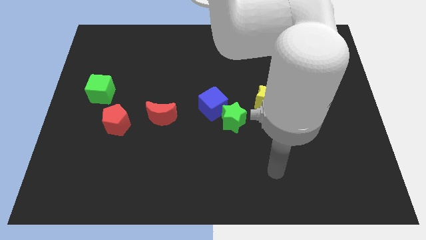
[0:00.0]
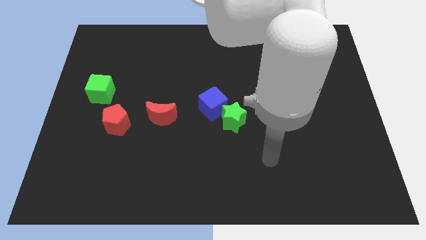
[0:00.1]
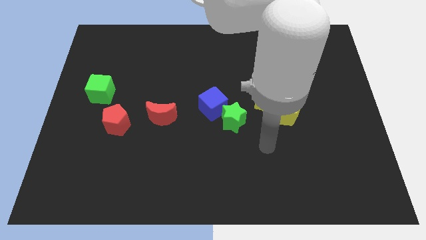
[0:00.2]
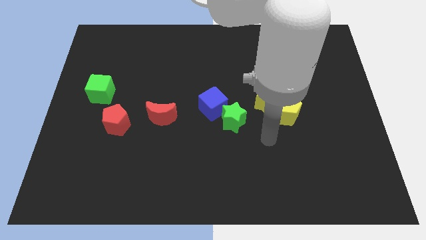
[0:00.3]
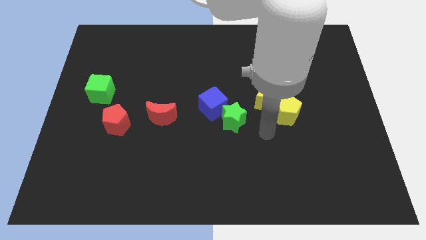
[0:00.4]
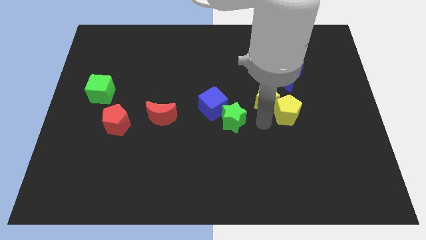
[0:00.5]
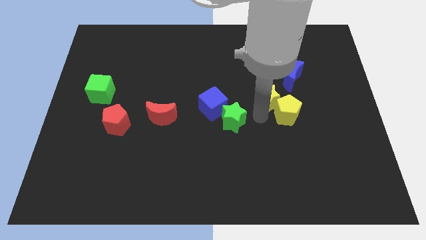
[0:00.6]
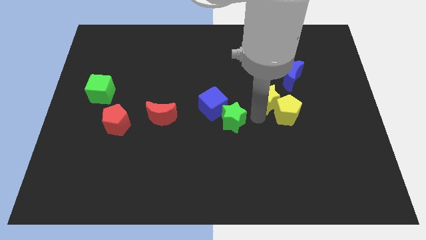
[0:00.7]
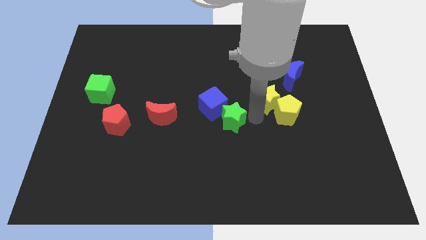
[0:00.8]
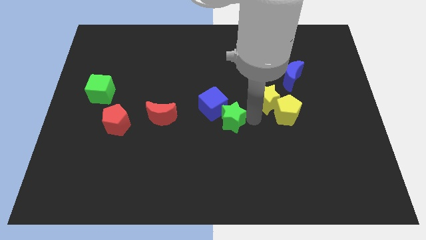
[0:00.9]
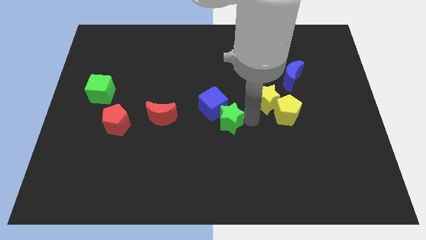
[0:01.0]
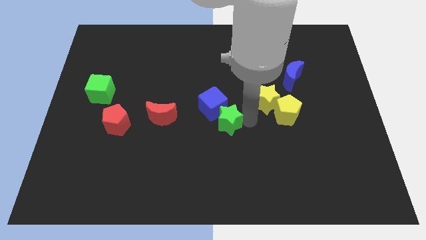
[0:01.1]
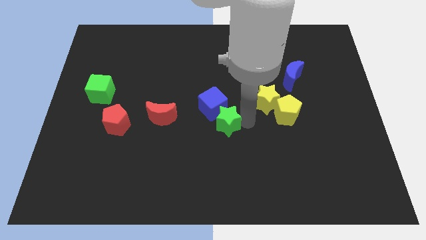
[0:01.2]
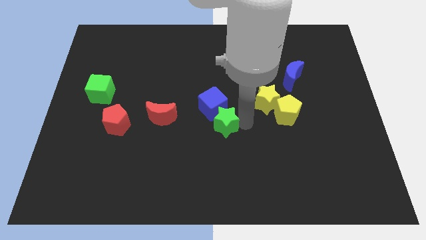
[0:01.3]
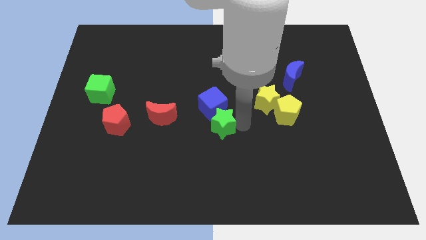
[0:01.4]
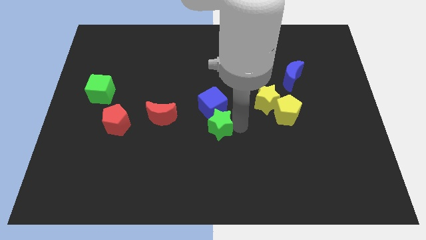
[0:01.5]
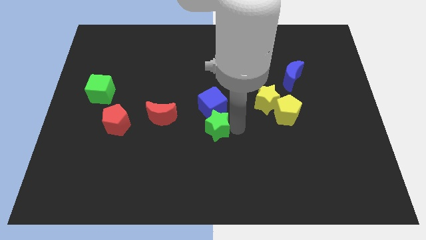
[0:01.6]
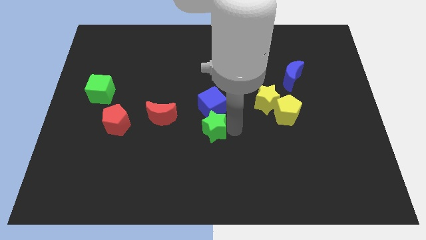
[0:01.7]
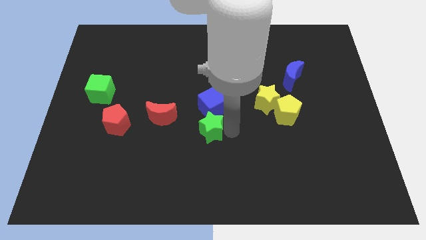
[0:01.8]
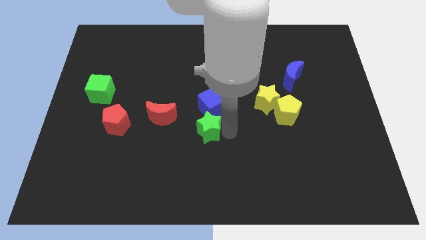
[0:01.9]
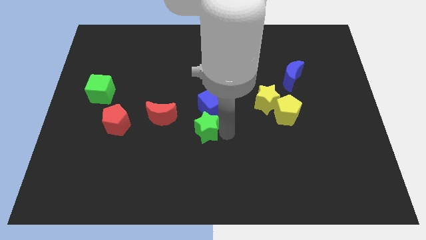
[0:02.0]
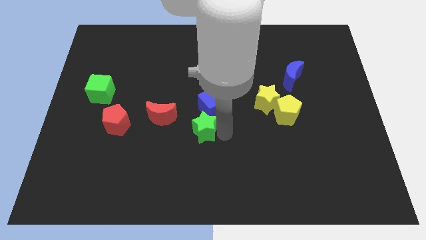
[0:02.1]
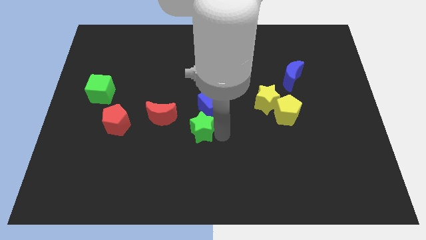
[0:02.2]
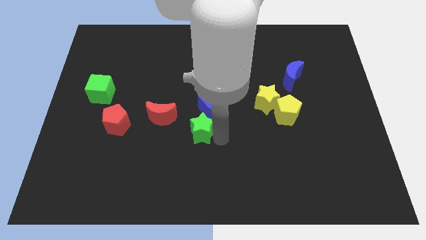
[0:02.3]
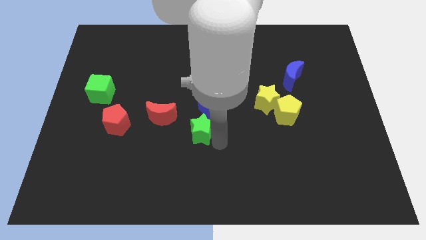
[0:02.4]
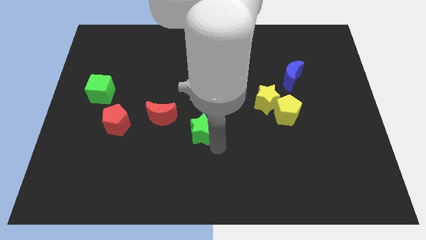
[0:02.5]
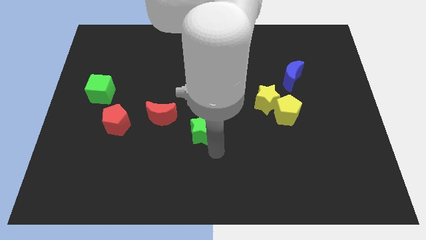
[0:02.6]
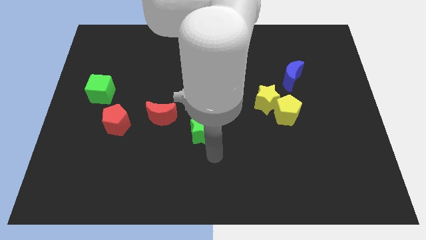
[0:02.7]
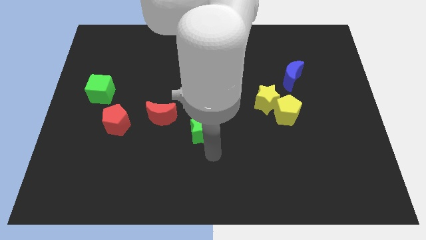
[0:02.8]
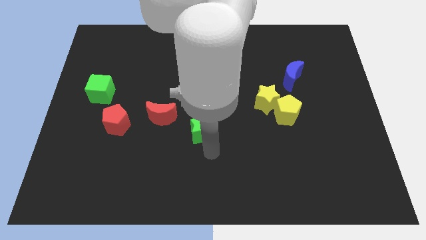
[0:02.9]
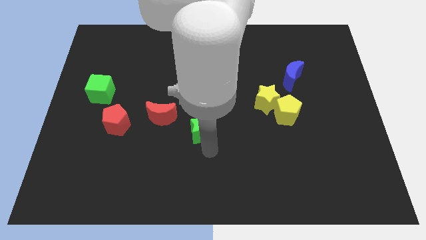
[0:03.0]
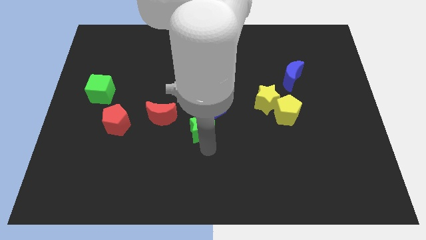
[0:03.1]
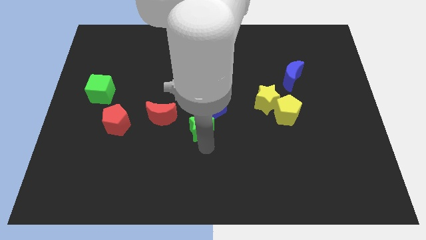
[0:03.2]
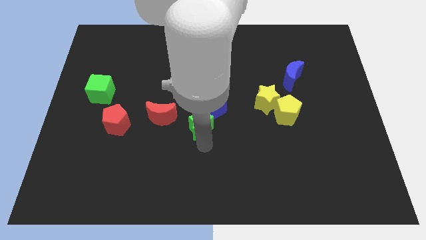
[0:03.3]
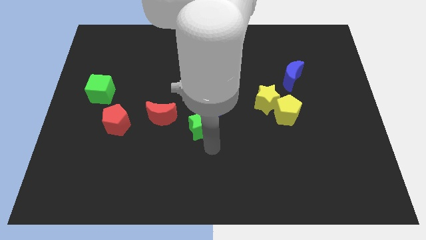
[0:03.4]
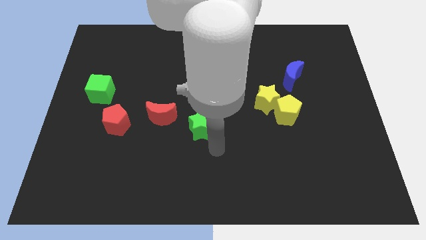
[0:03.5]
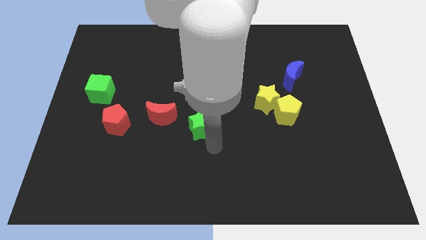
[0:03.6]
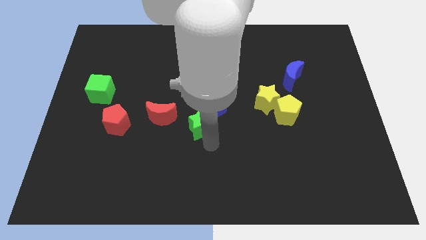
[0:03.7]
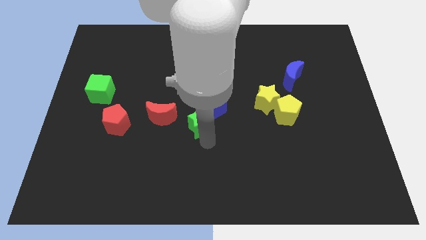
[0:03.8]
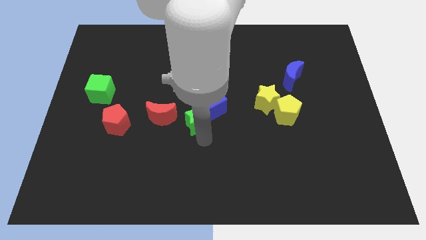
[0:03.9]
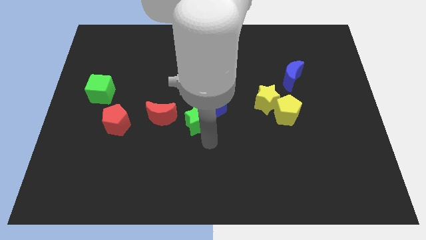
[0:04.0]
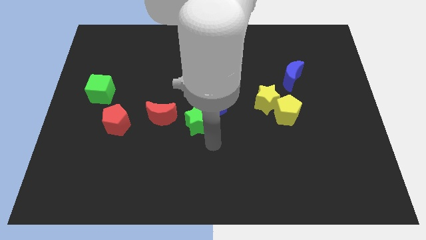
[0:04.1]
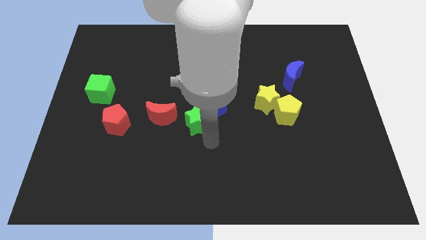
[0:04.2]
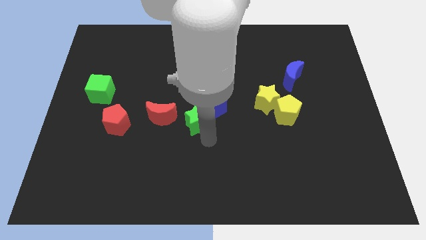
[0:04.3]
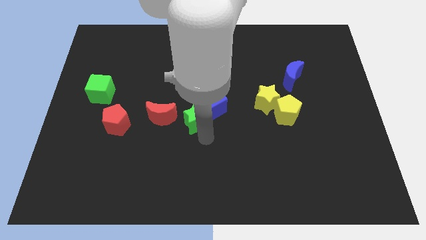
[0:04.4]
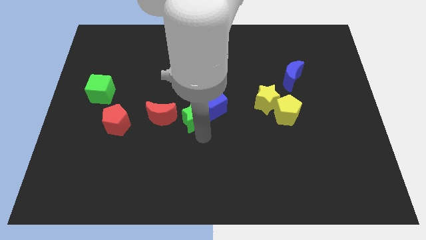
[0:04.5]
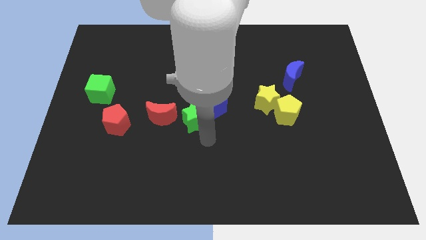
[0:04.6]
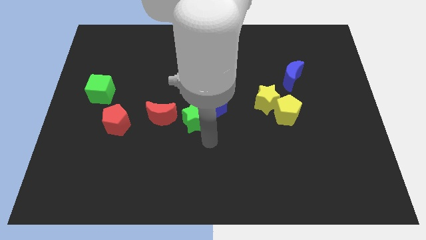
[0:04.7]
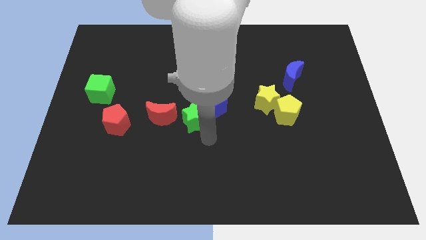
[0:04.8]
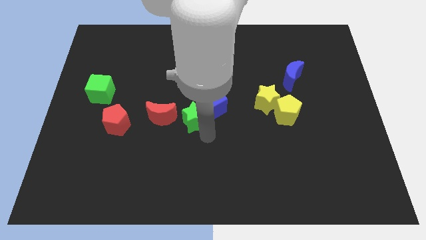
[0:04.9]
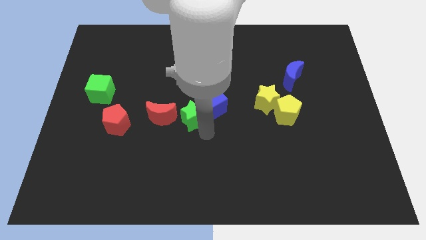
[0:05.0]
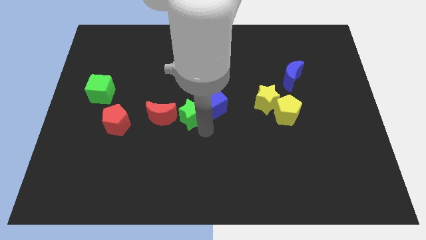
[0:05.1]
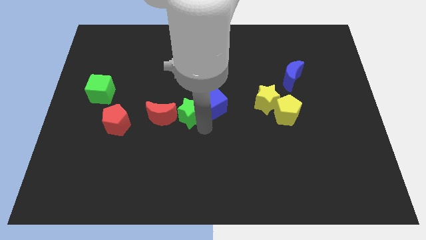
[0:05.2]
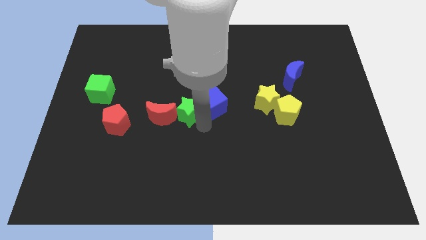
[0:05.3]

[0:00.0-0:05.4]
slightly move the green star upwards and to the left diagonally

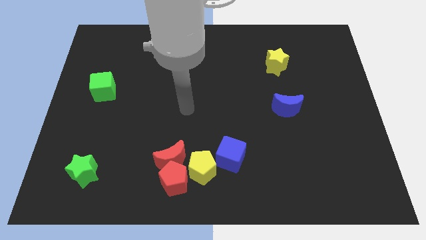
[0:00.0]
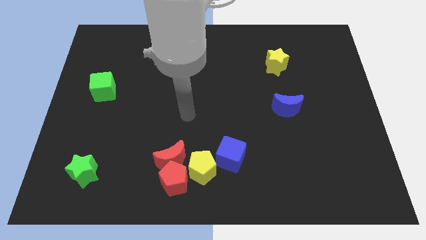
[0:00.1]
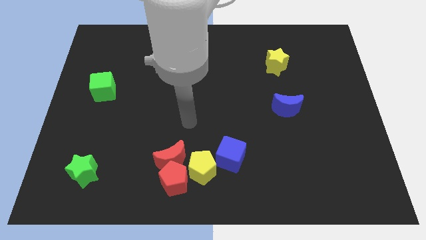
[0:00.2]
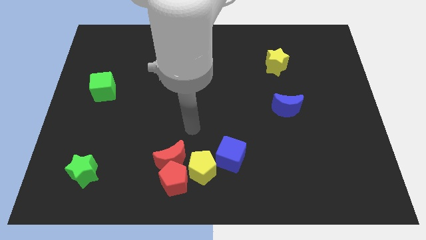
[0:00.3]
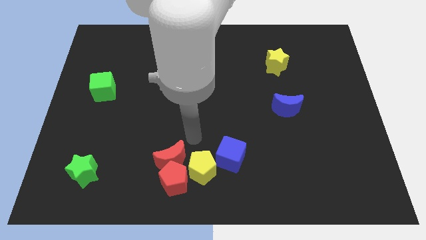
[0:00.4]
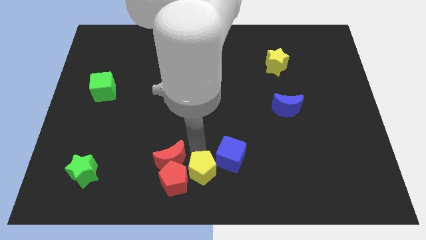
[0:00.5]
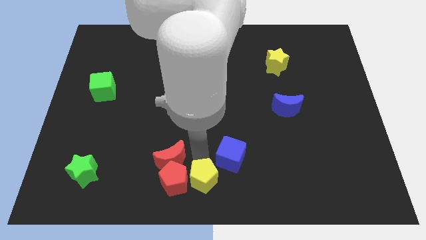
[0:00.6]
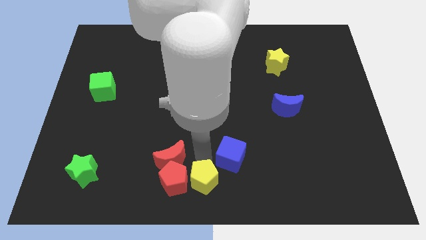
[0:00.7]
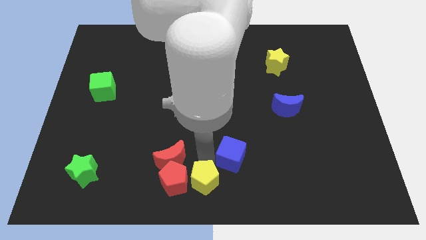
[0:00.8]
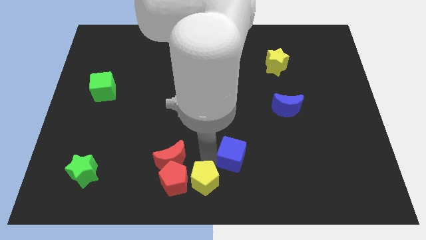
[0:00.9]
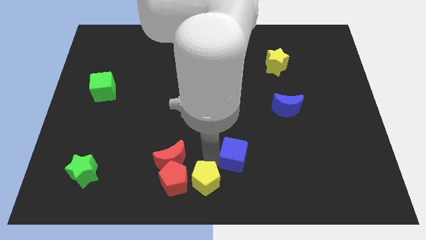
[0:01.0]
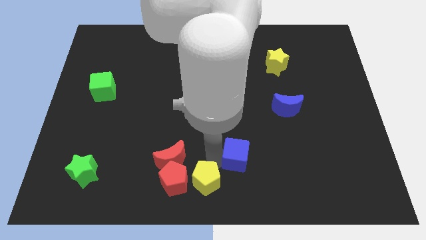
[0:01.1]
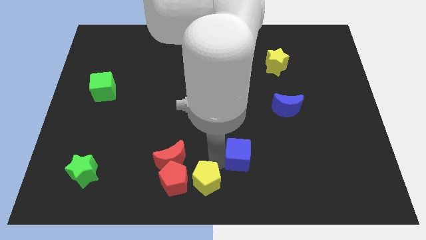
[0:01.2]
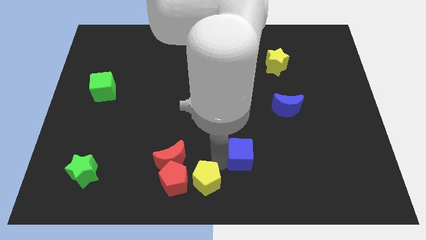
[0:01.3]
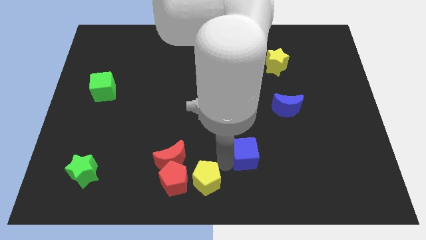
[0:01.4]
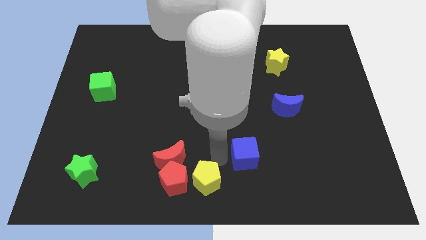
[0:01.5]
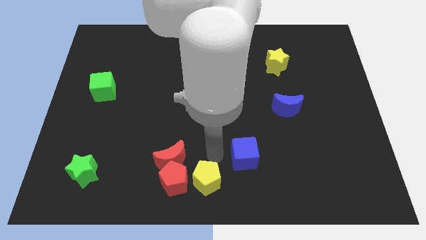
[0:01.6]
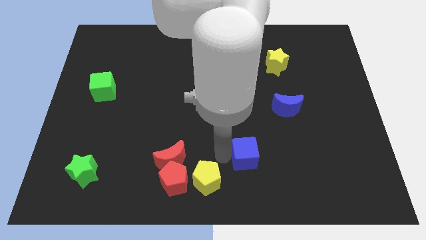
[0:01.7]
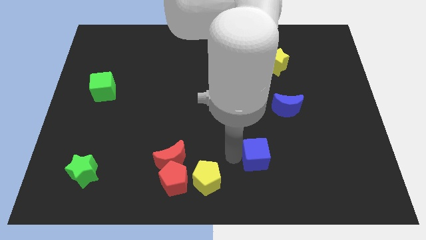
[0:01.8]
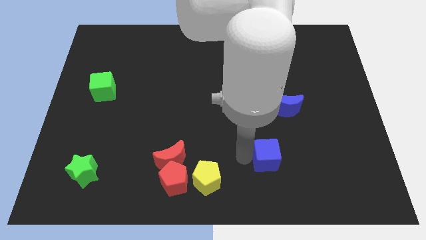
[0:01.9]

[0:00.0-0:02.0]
slightly push the blue cube to the right

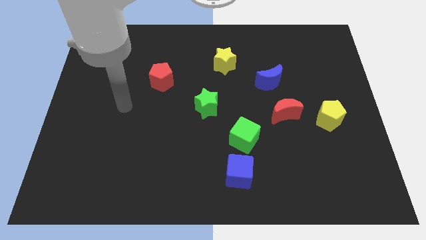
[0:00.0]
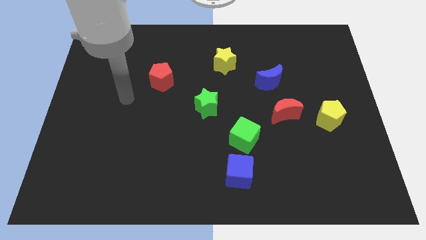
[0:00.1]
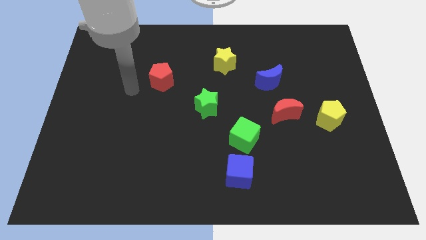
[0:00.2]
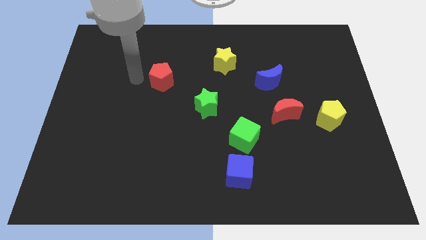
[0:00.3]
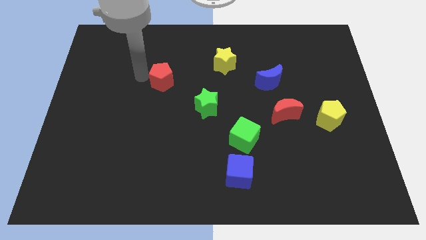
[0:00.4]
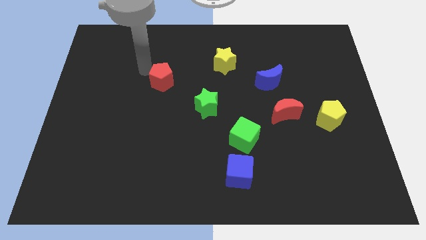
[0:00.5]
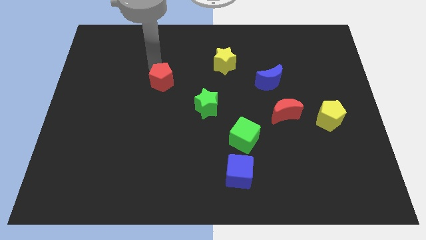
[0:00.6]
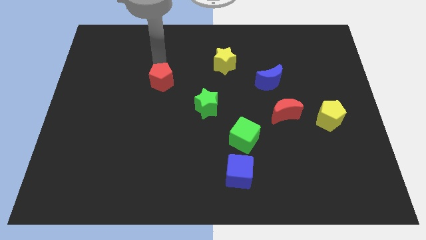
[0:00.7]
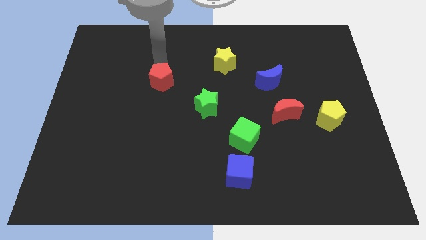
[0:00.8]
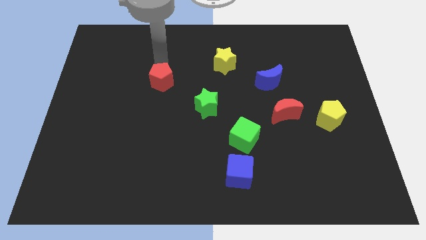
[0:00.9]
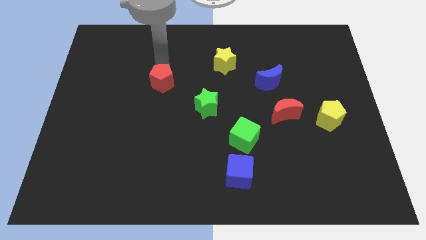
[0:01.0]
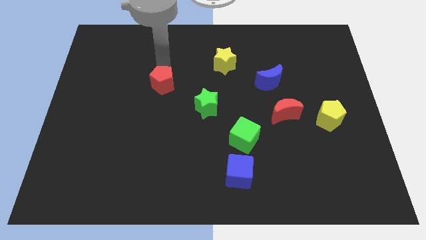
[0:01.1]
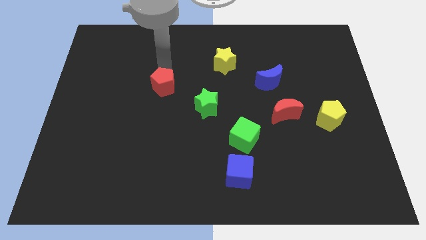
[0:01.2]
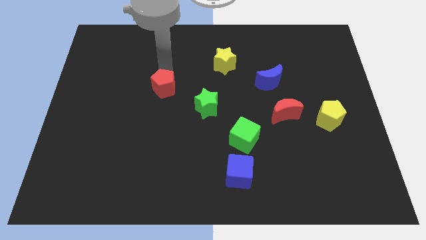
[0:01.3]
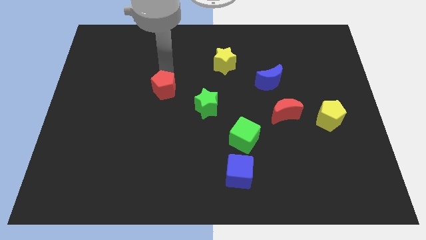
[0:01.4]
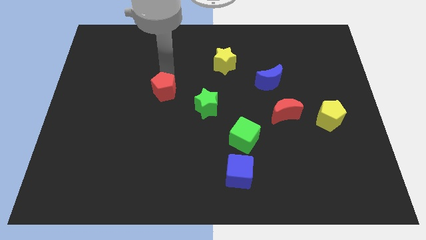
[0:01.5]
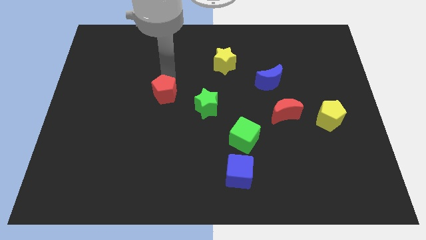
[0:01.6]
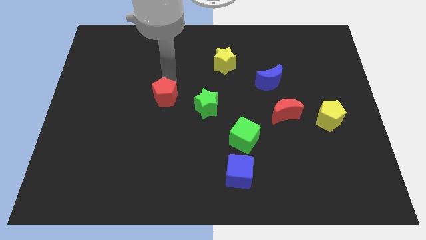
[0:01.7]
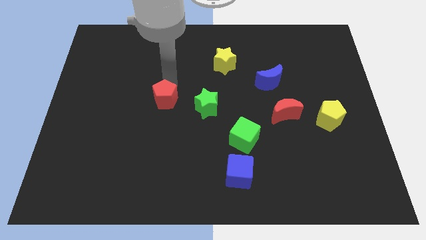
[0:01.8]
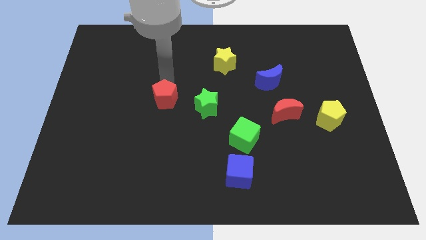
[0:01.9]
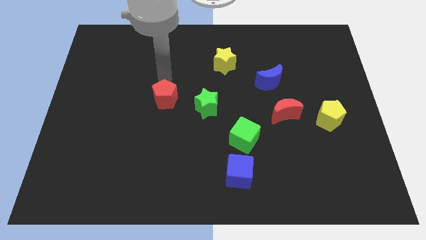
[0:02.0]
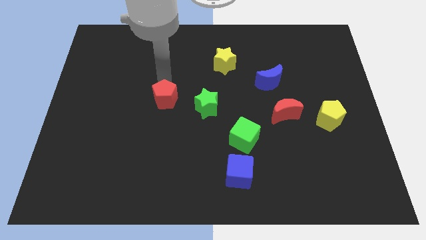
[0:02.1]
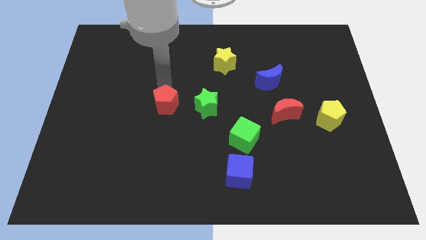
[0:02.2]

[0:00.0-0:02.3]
slightly slide the red pentagon downwards
